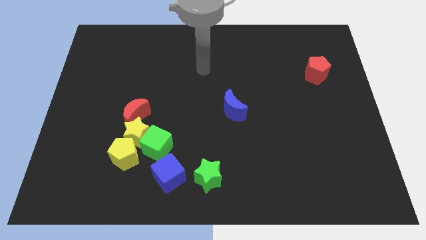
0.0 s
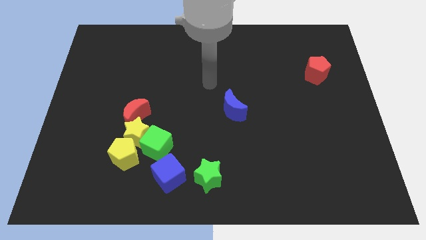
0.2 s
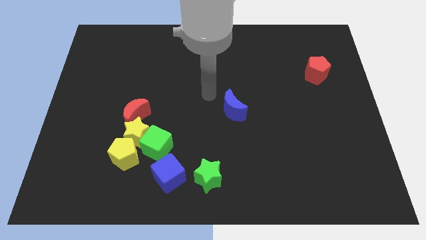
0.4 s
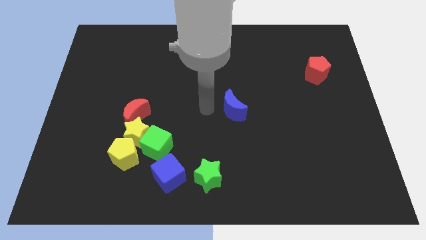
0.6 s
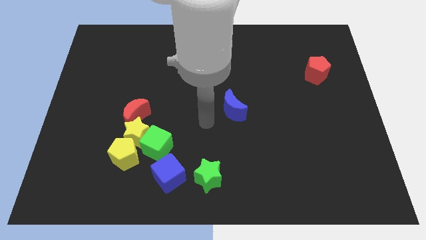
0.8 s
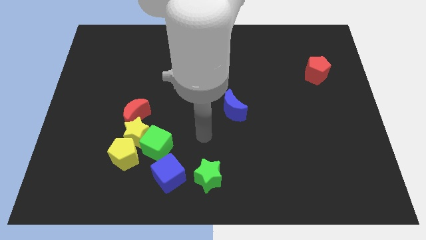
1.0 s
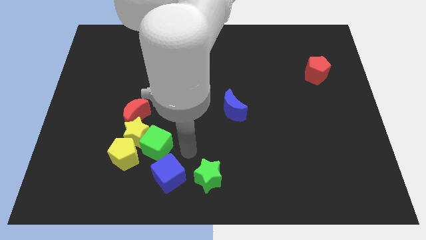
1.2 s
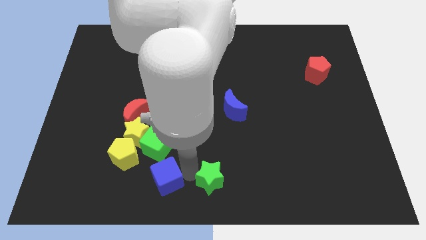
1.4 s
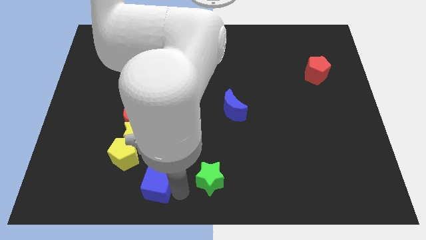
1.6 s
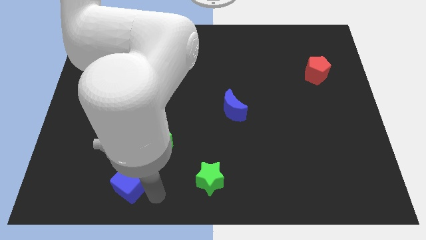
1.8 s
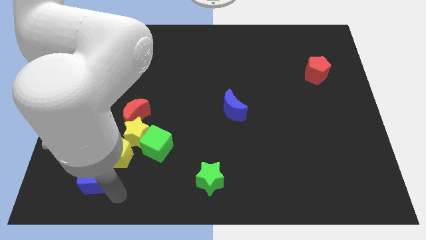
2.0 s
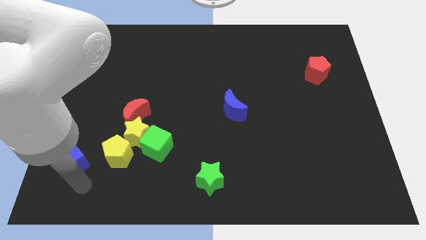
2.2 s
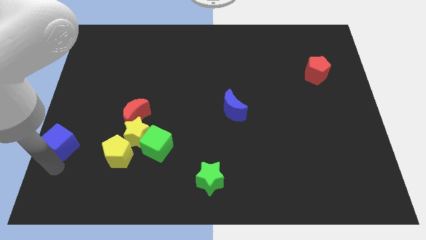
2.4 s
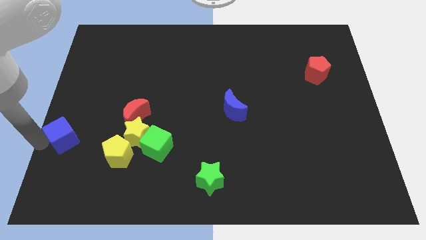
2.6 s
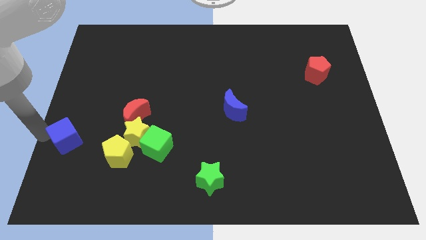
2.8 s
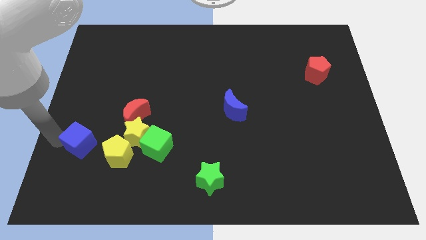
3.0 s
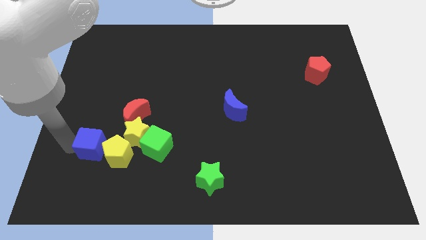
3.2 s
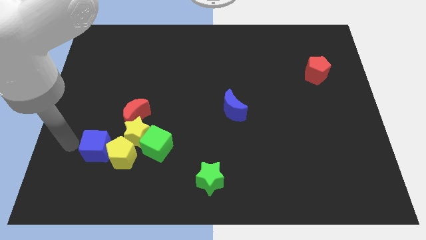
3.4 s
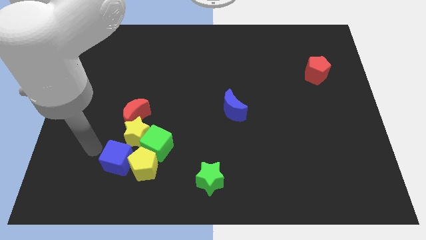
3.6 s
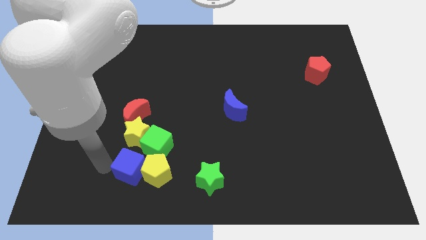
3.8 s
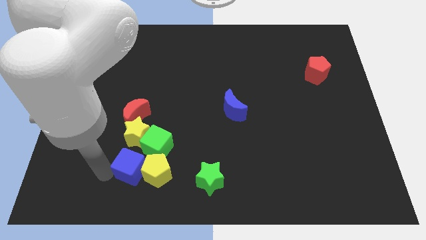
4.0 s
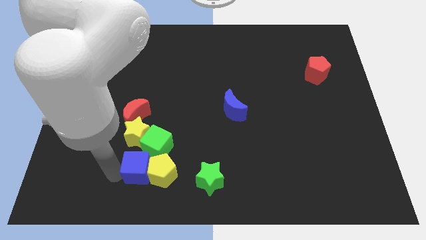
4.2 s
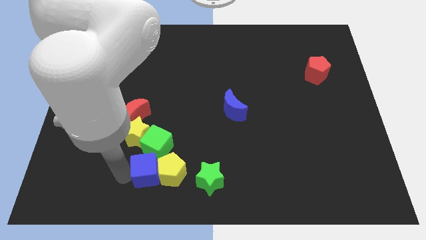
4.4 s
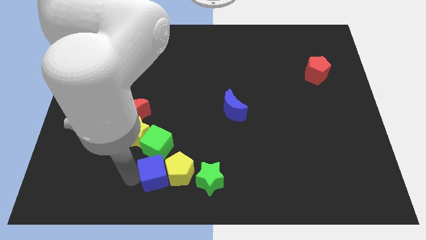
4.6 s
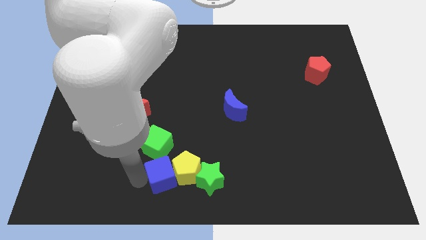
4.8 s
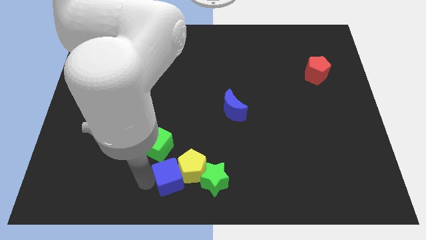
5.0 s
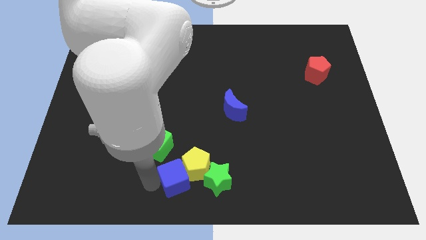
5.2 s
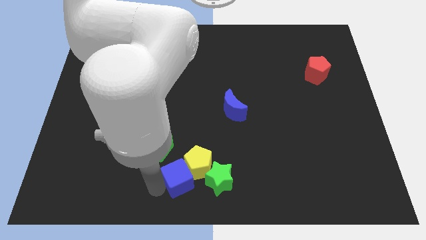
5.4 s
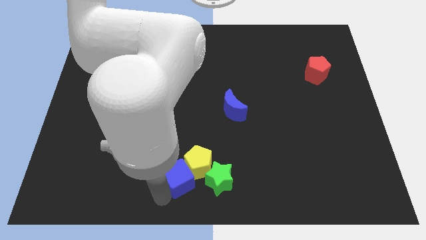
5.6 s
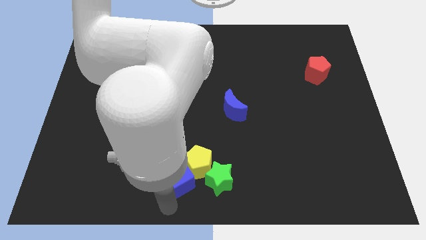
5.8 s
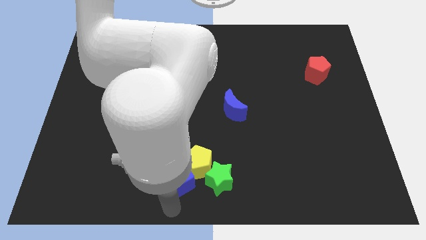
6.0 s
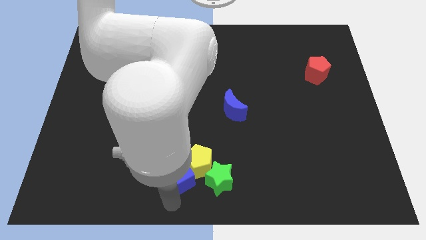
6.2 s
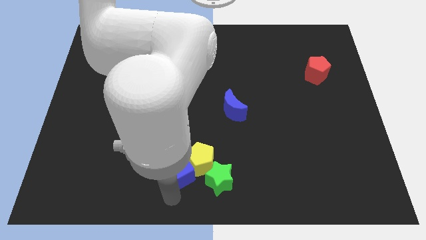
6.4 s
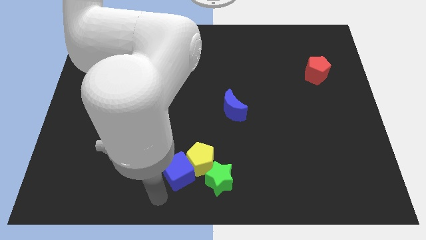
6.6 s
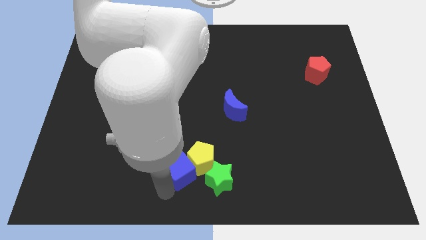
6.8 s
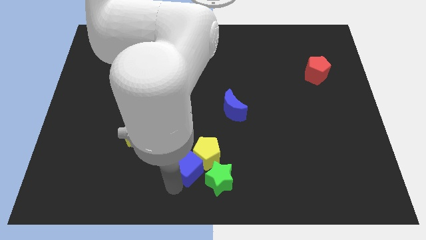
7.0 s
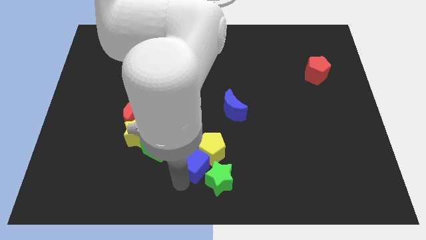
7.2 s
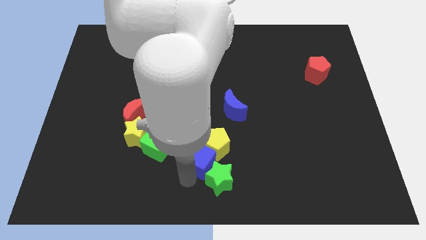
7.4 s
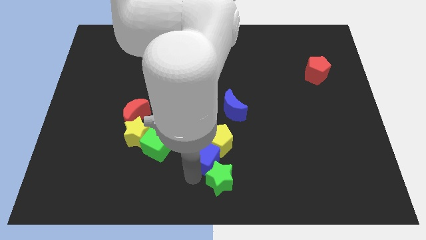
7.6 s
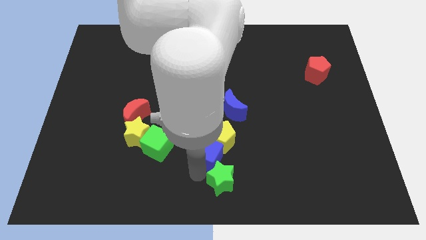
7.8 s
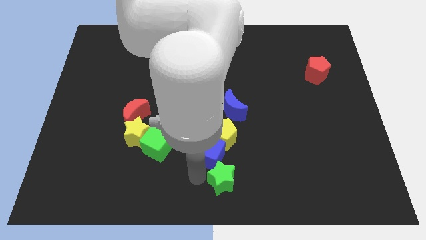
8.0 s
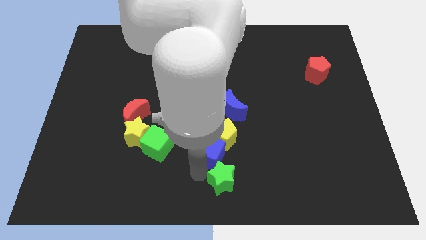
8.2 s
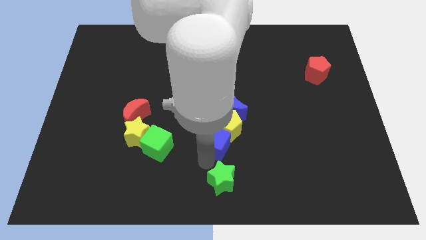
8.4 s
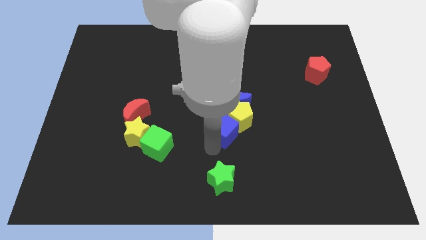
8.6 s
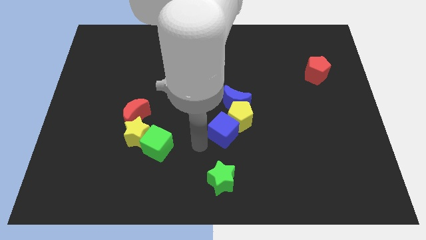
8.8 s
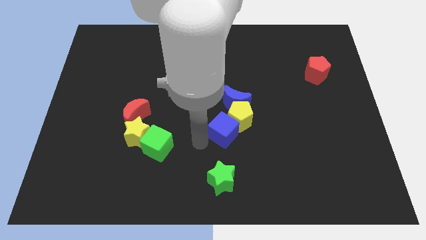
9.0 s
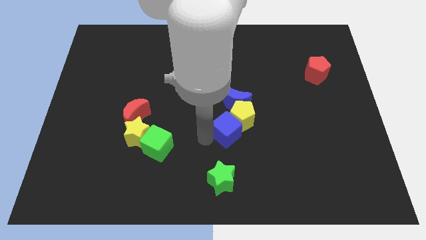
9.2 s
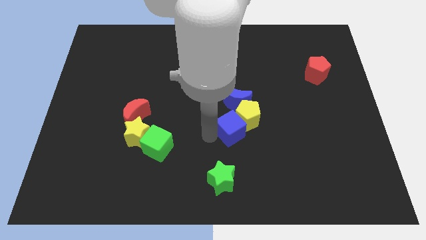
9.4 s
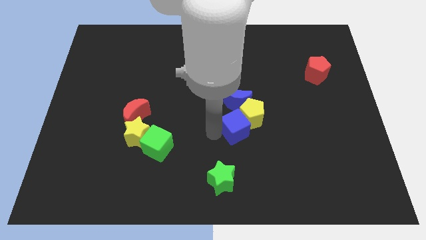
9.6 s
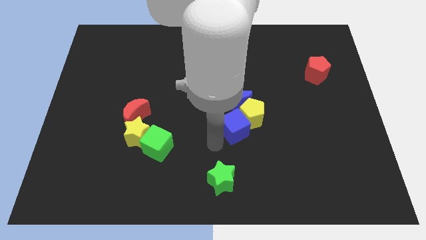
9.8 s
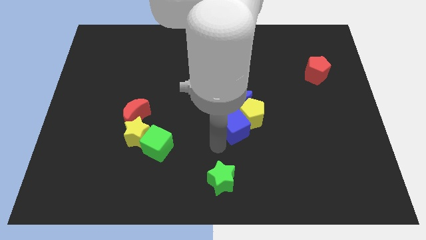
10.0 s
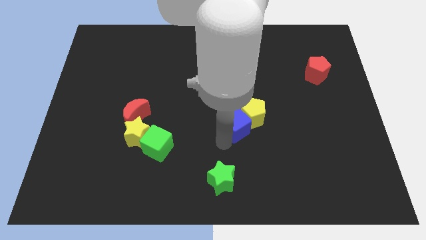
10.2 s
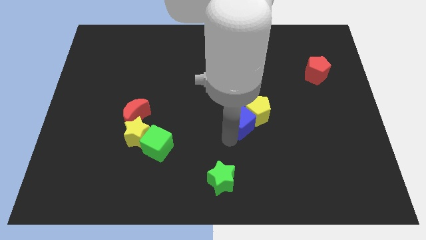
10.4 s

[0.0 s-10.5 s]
push the blue cube upwards and to the right

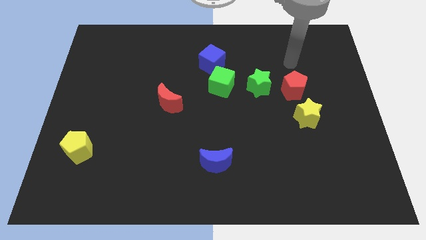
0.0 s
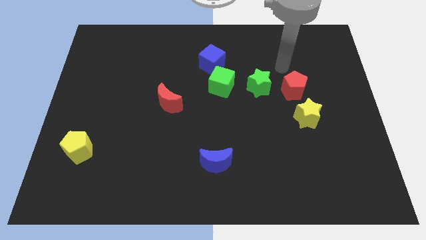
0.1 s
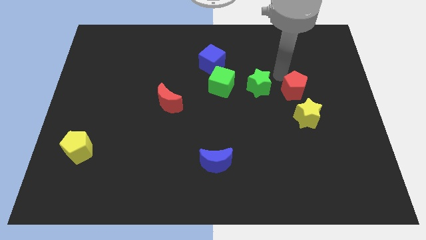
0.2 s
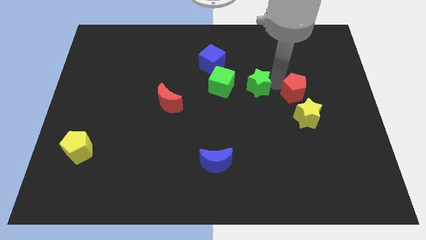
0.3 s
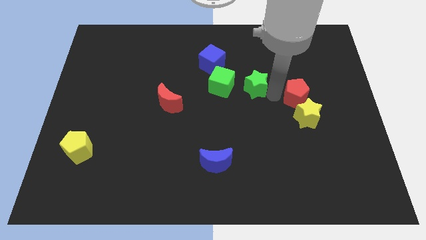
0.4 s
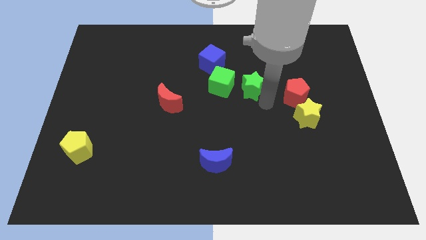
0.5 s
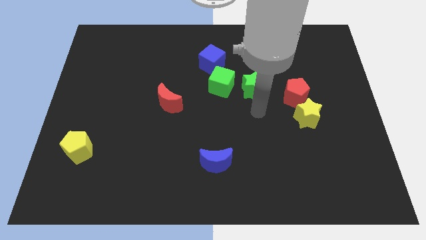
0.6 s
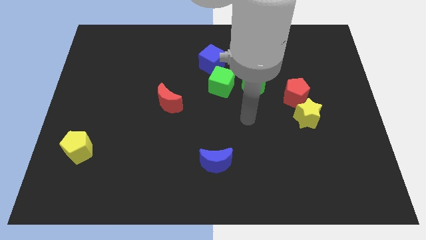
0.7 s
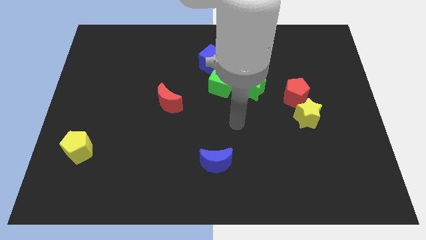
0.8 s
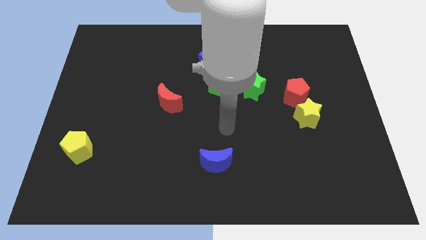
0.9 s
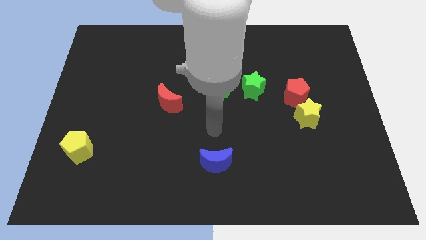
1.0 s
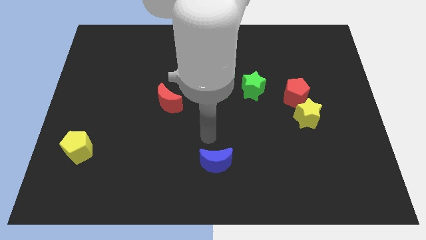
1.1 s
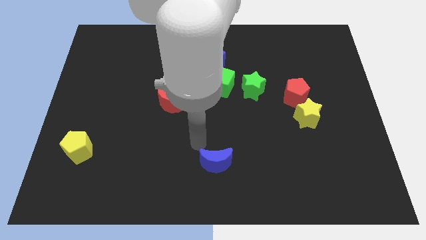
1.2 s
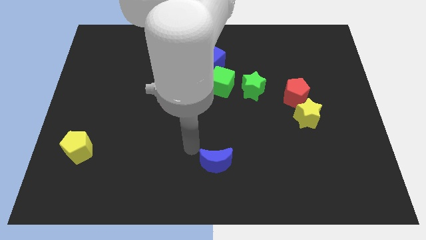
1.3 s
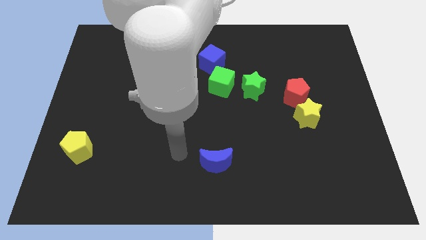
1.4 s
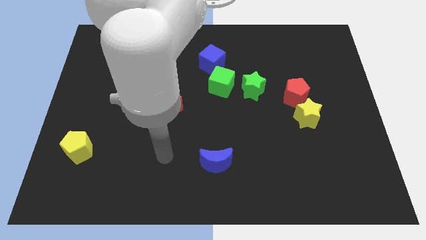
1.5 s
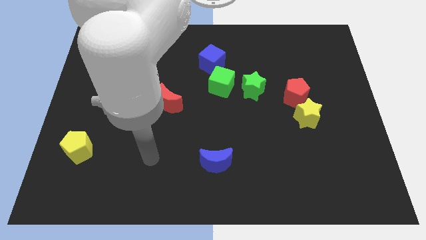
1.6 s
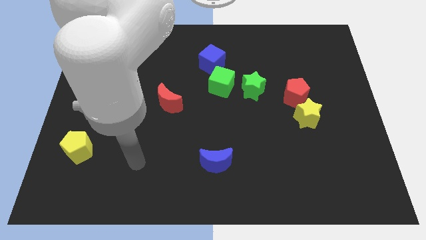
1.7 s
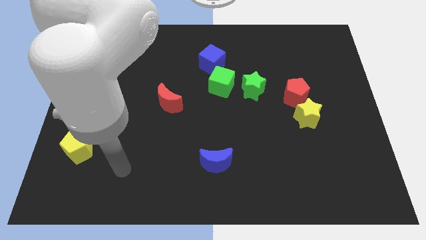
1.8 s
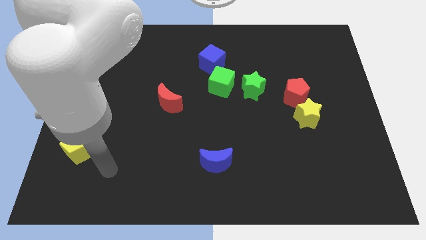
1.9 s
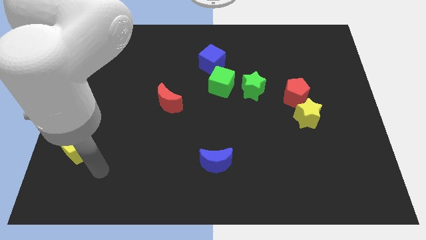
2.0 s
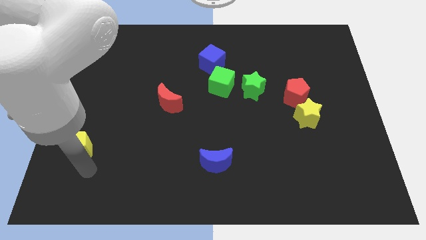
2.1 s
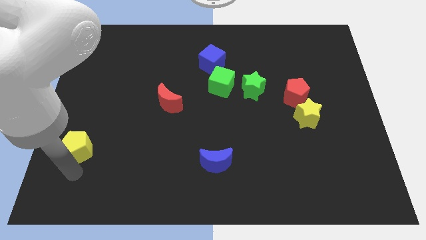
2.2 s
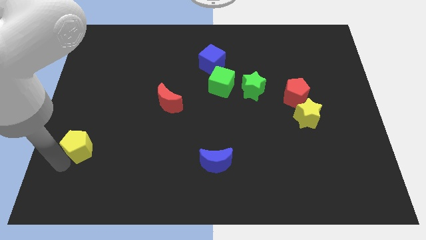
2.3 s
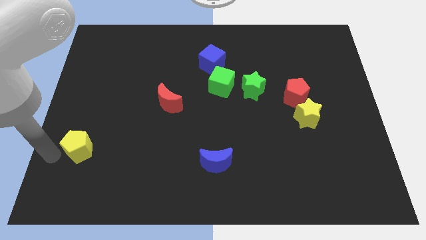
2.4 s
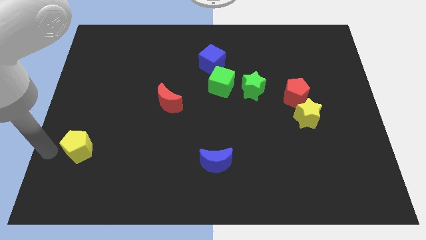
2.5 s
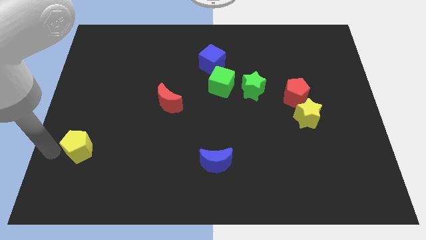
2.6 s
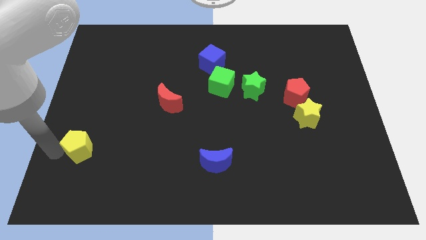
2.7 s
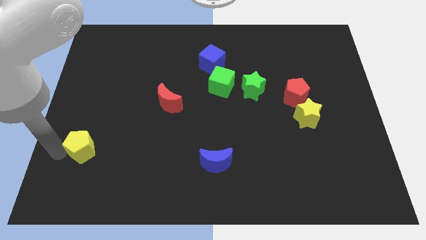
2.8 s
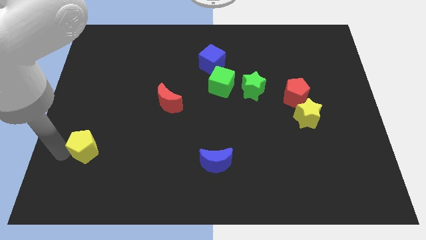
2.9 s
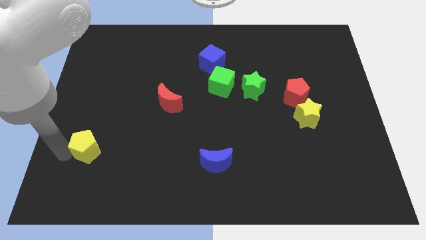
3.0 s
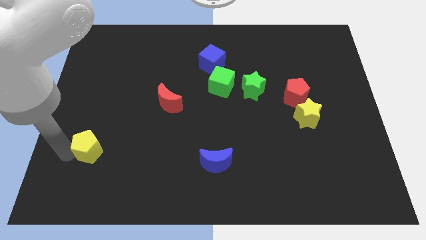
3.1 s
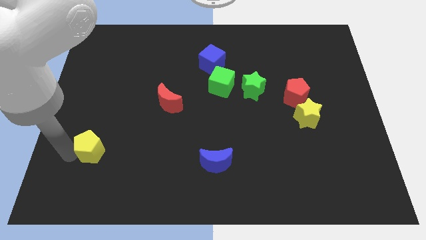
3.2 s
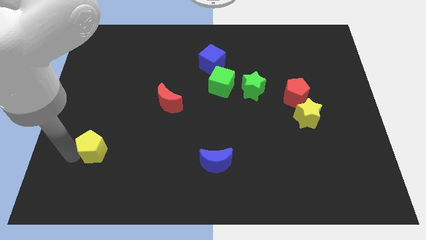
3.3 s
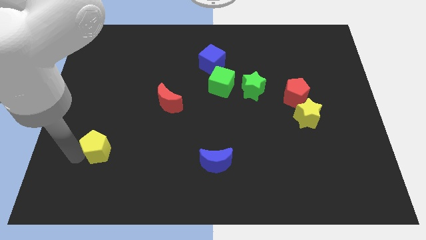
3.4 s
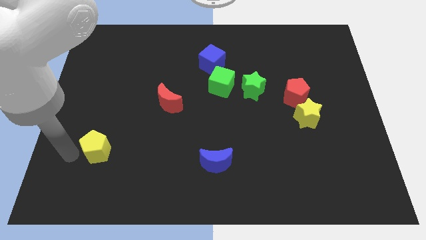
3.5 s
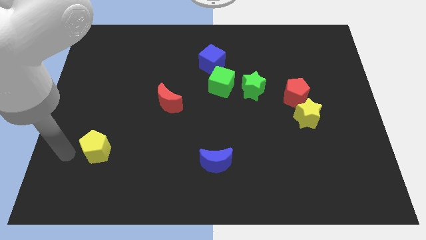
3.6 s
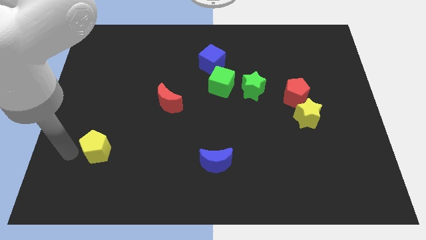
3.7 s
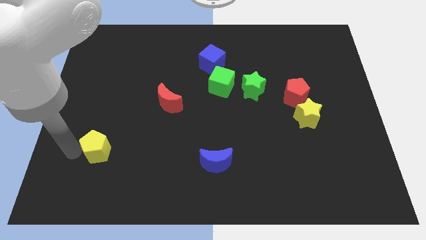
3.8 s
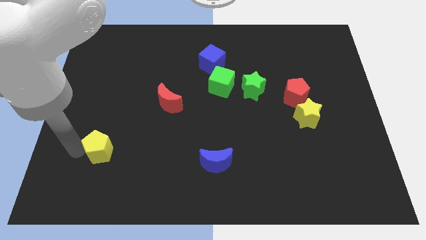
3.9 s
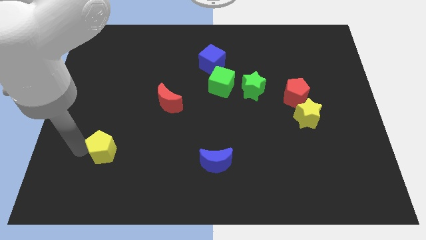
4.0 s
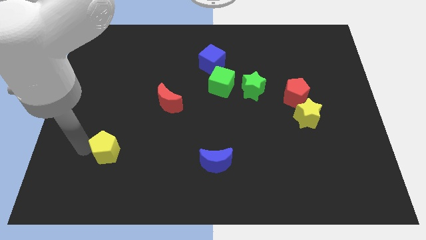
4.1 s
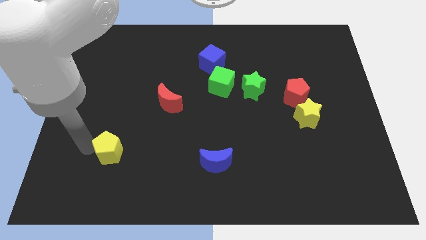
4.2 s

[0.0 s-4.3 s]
slightly move the yellow pentagon right
